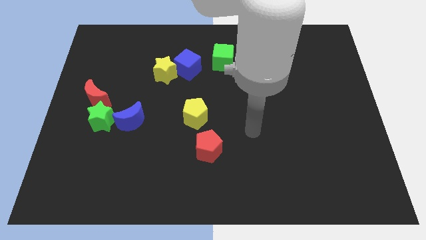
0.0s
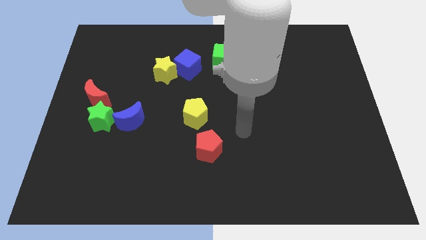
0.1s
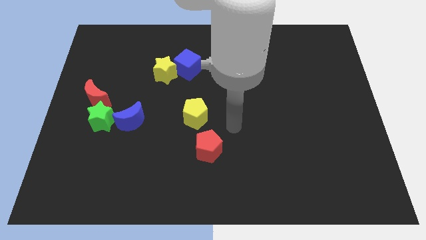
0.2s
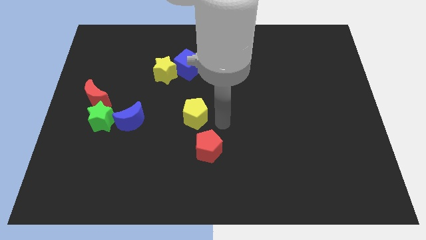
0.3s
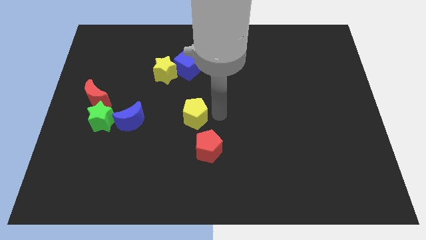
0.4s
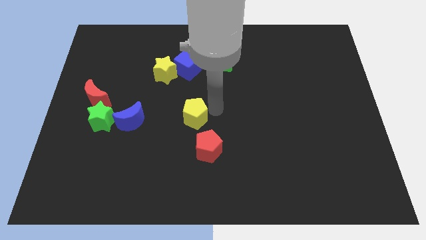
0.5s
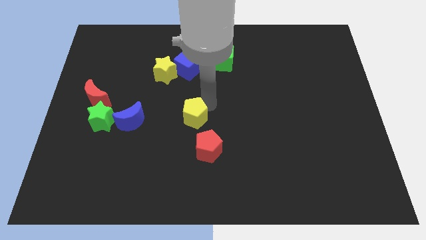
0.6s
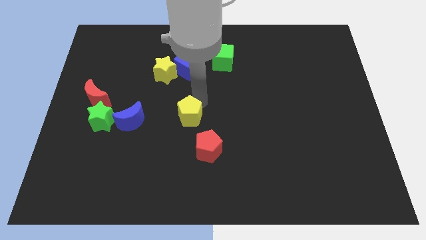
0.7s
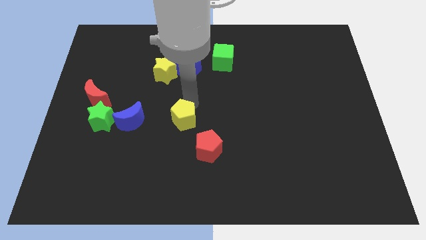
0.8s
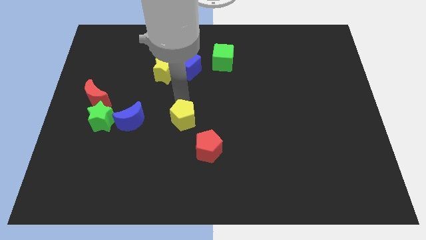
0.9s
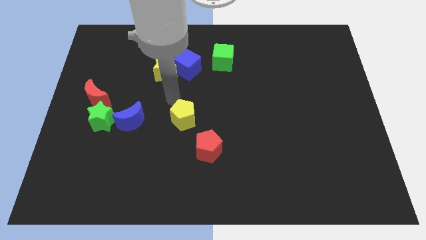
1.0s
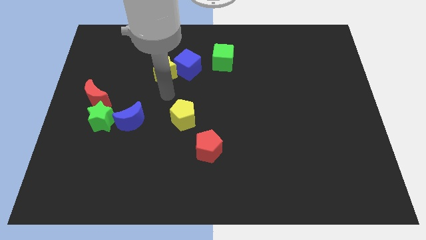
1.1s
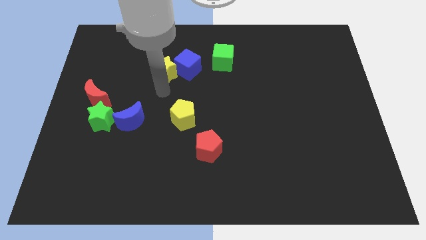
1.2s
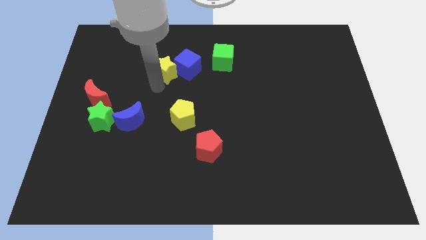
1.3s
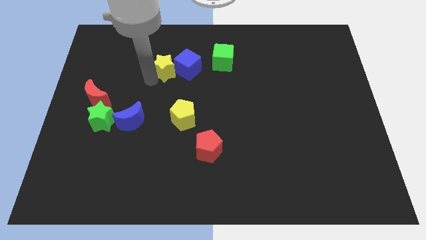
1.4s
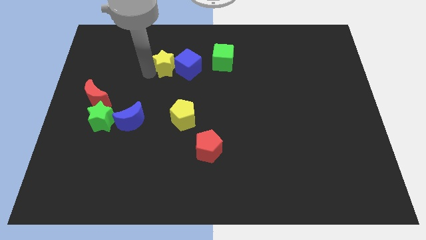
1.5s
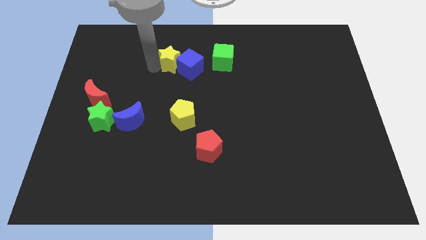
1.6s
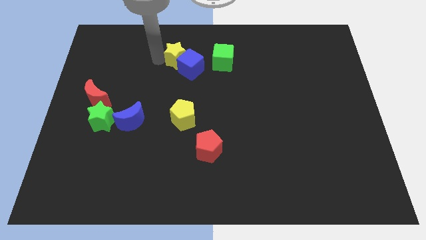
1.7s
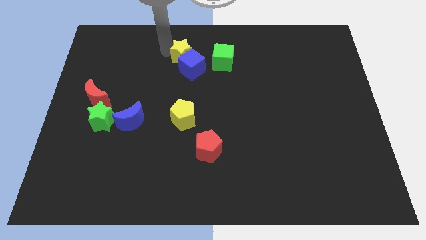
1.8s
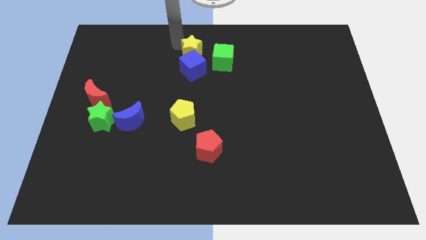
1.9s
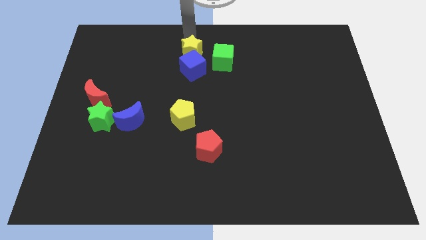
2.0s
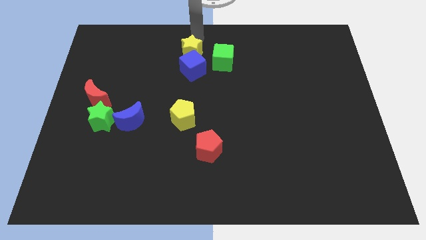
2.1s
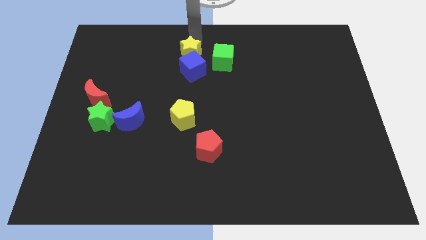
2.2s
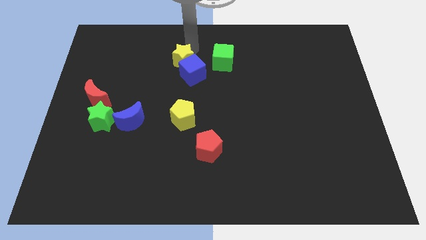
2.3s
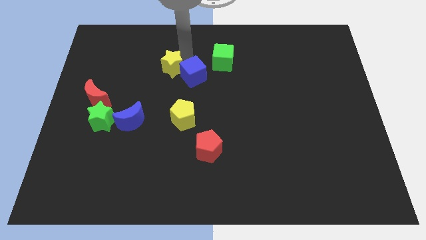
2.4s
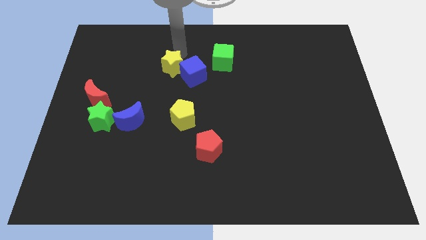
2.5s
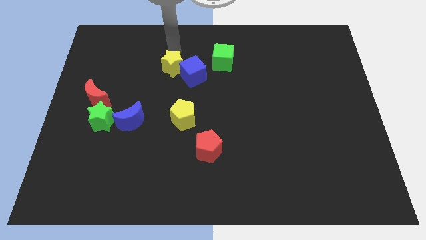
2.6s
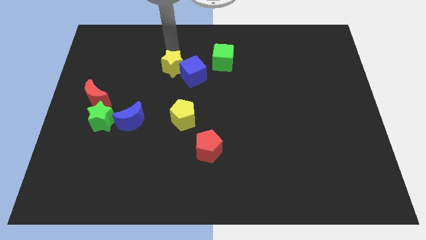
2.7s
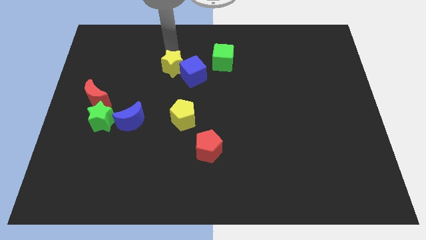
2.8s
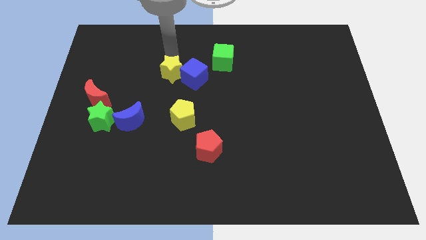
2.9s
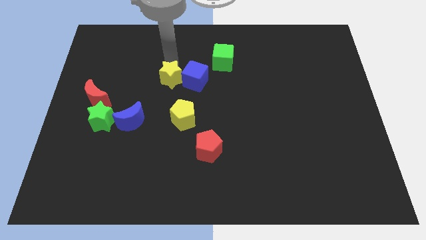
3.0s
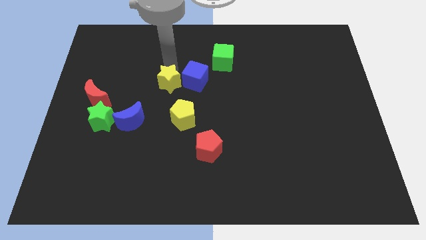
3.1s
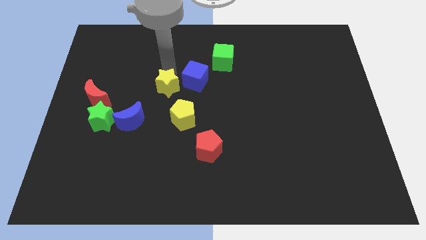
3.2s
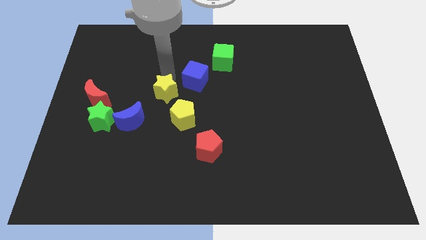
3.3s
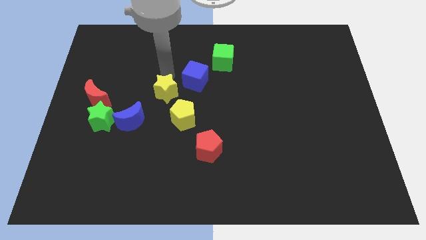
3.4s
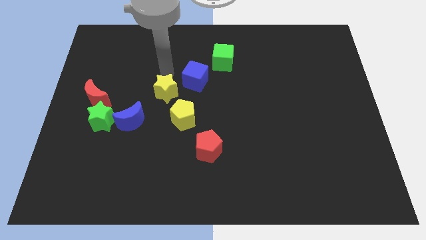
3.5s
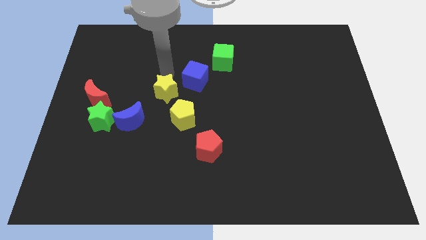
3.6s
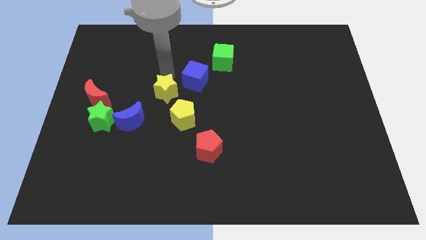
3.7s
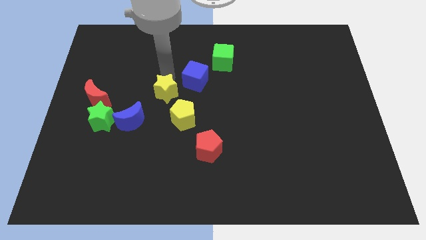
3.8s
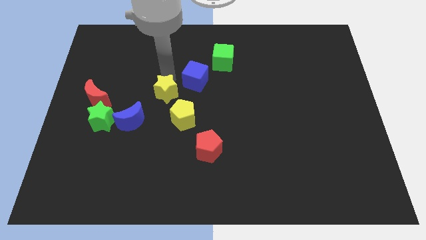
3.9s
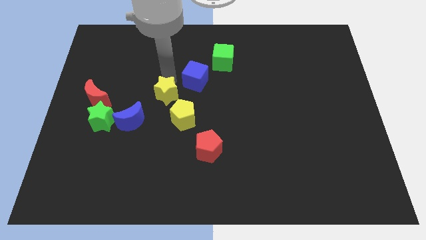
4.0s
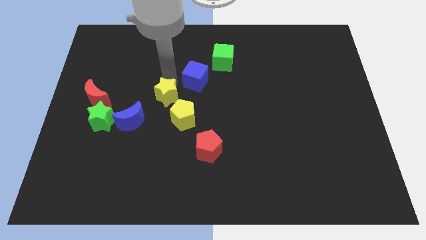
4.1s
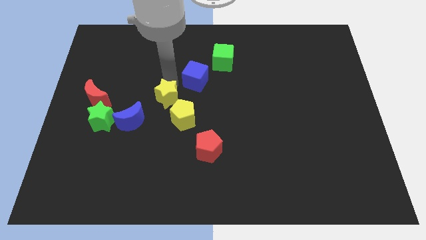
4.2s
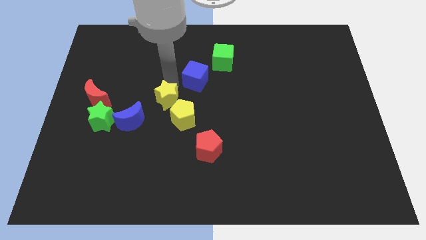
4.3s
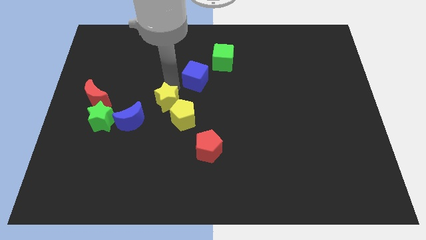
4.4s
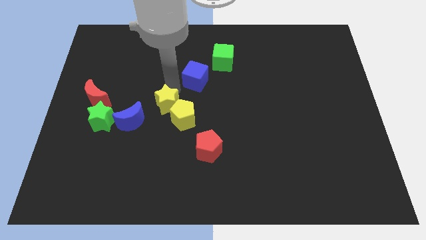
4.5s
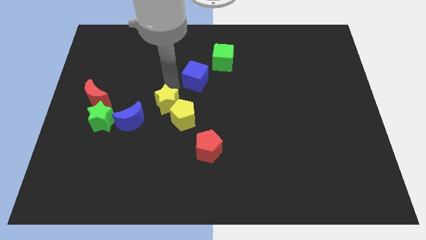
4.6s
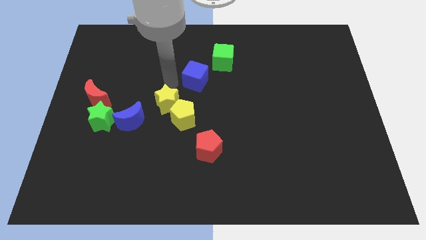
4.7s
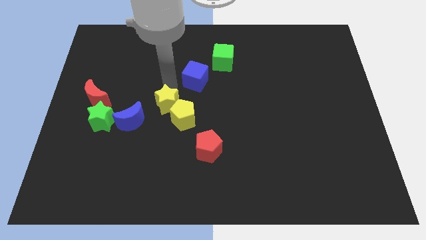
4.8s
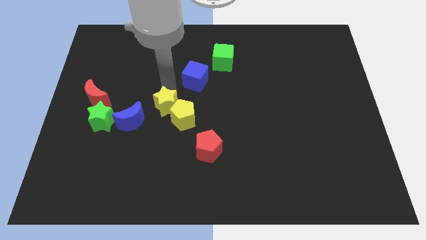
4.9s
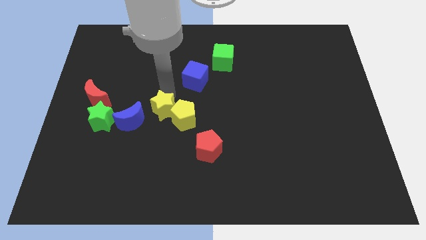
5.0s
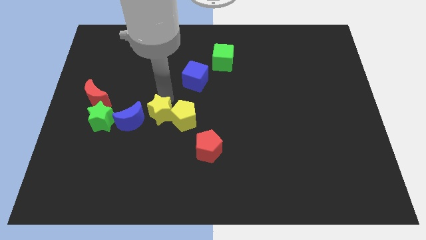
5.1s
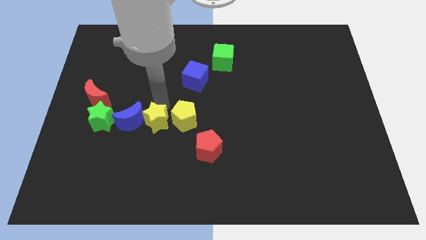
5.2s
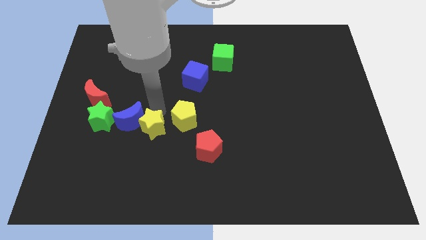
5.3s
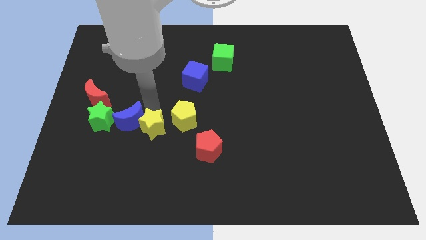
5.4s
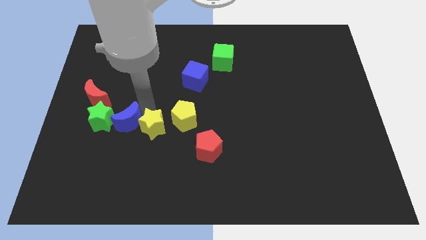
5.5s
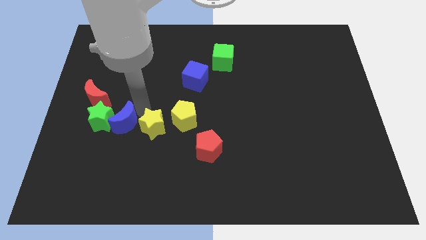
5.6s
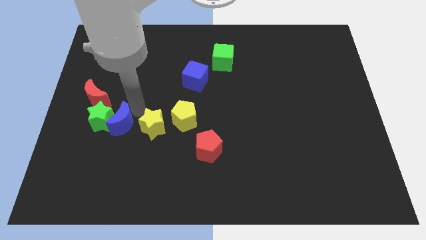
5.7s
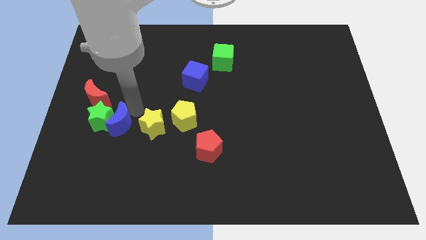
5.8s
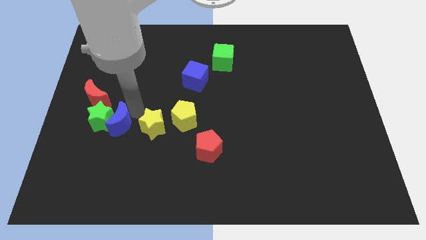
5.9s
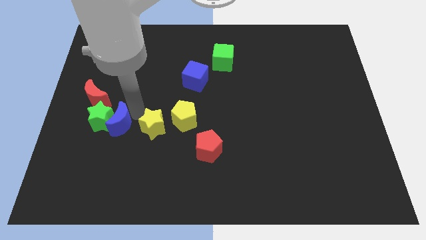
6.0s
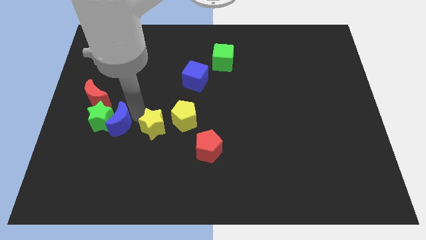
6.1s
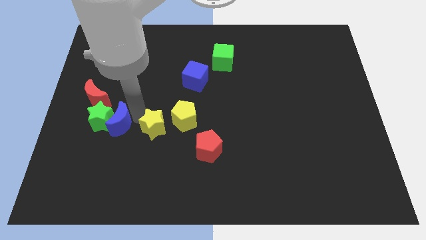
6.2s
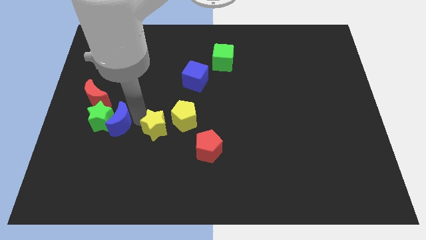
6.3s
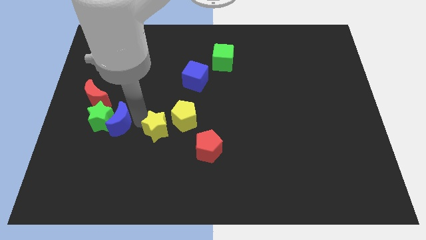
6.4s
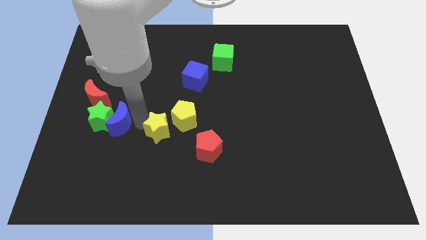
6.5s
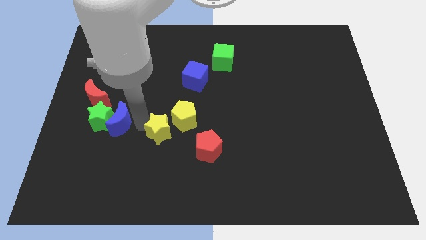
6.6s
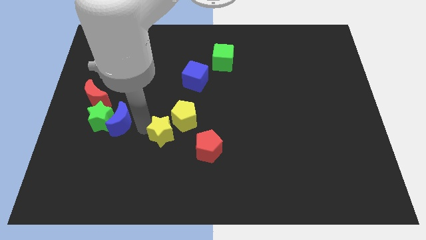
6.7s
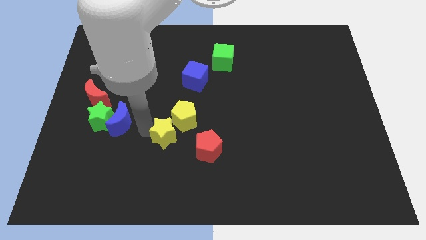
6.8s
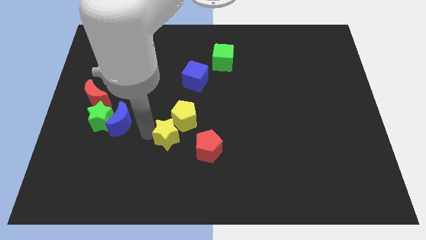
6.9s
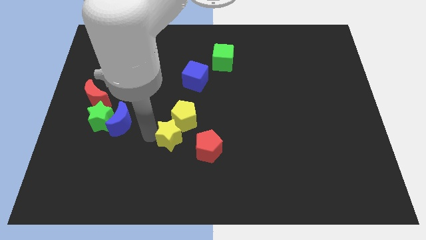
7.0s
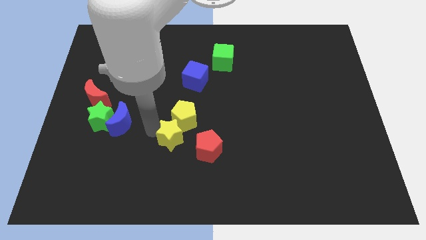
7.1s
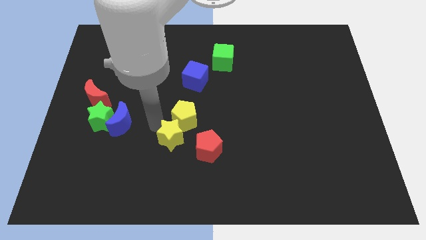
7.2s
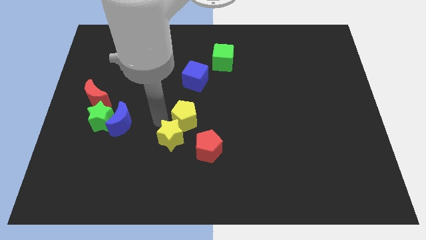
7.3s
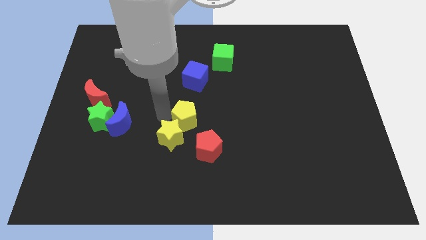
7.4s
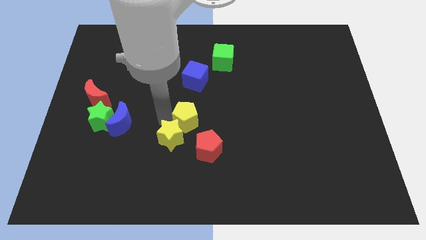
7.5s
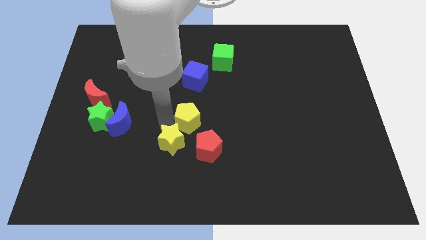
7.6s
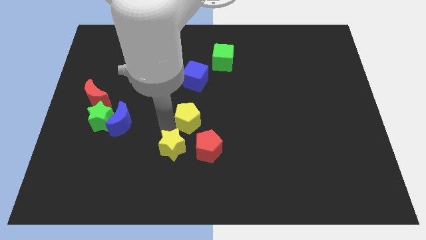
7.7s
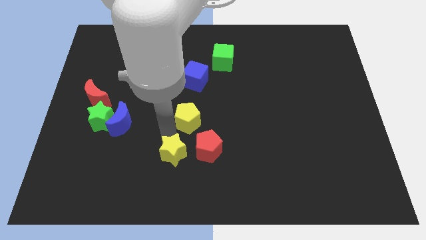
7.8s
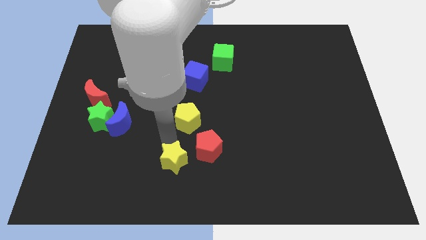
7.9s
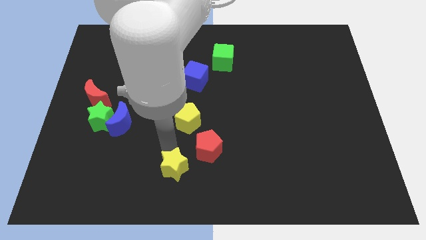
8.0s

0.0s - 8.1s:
put the yellow star to the bottom
